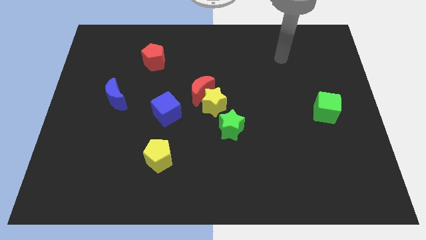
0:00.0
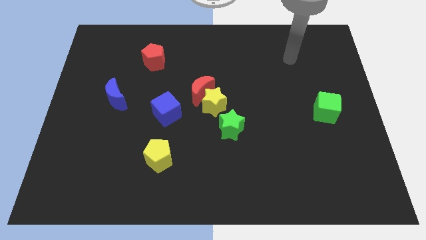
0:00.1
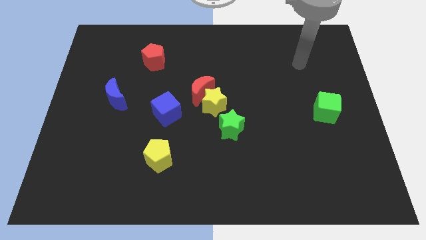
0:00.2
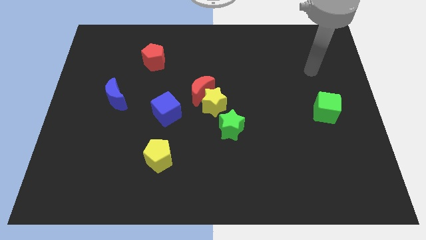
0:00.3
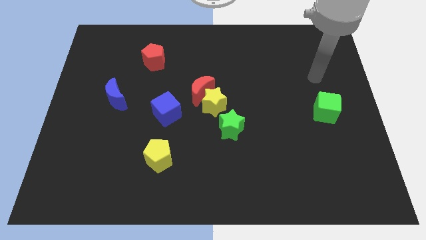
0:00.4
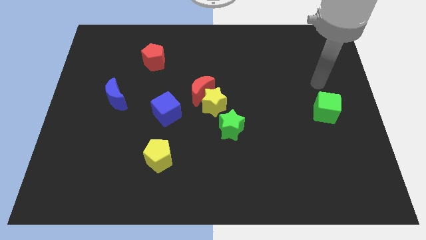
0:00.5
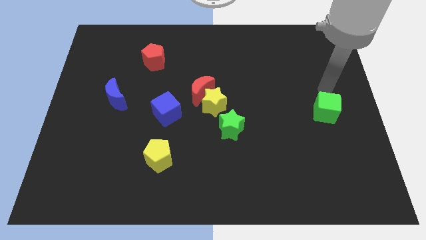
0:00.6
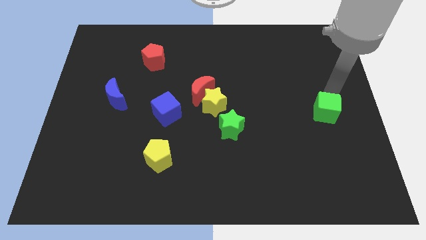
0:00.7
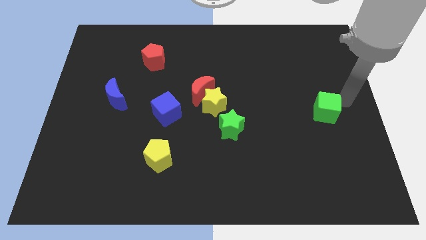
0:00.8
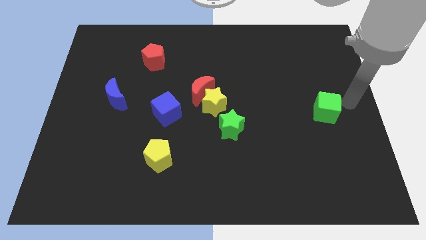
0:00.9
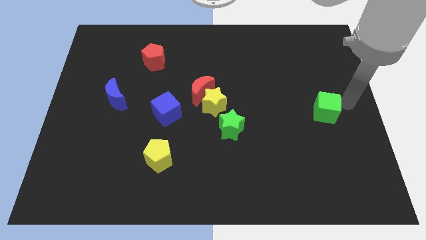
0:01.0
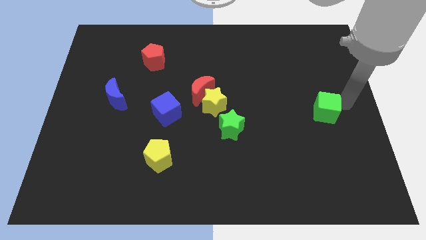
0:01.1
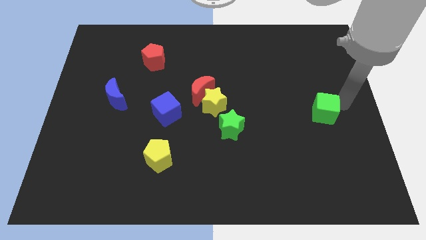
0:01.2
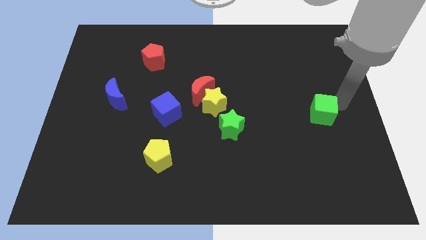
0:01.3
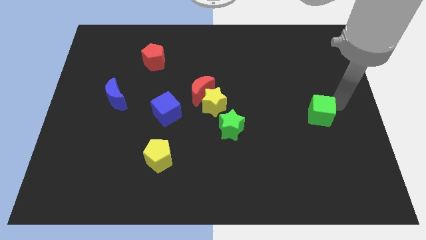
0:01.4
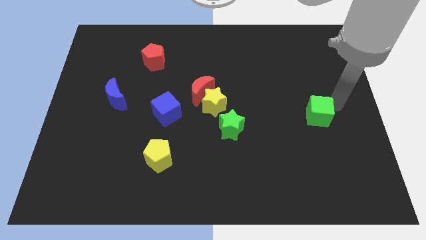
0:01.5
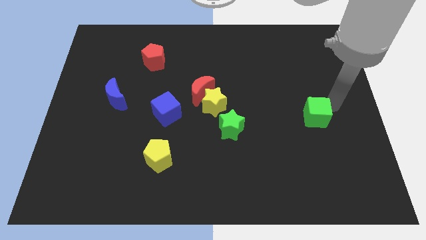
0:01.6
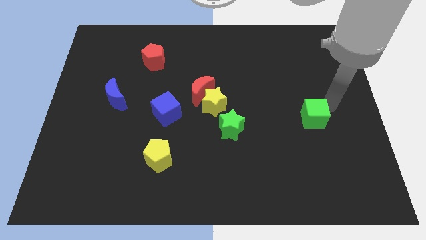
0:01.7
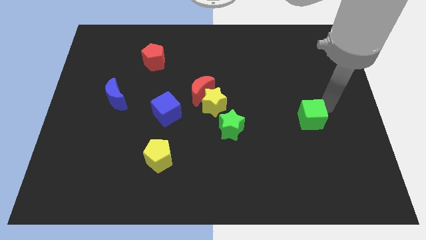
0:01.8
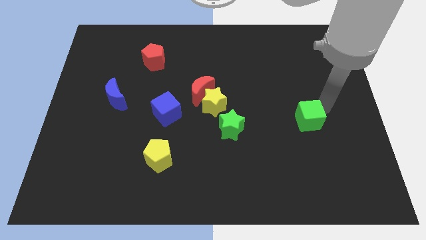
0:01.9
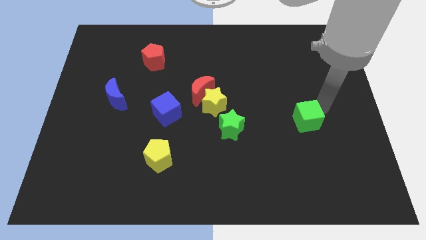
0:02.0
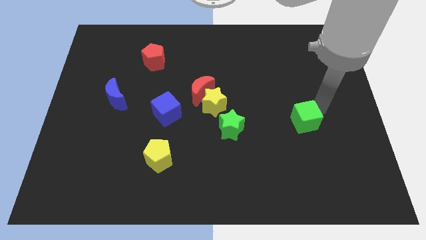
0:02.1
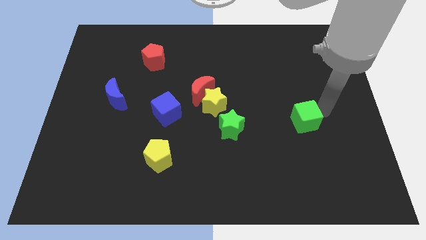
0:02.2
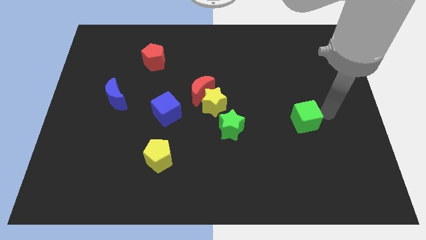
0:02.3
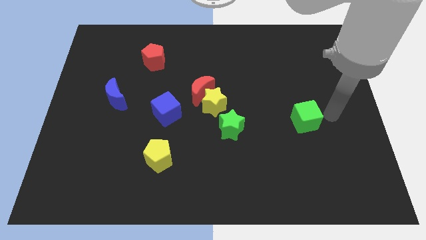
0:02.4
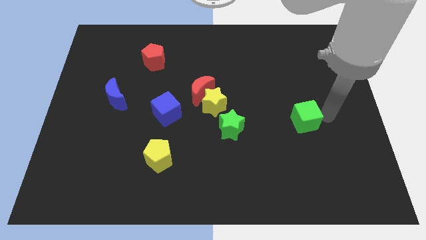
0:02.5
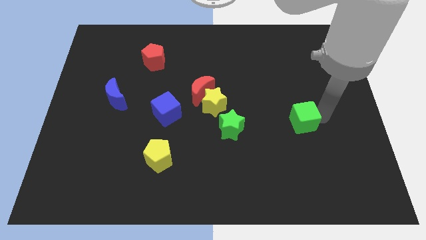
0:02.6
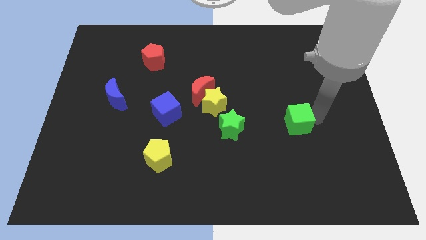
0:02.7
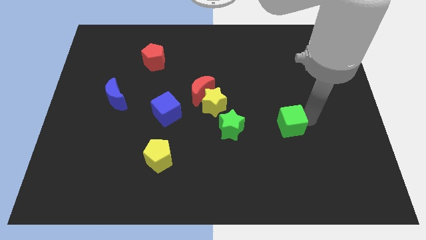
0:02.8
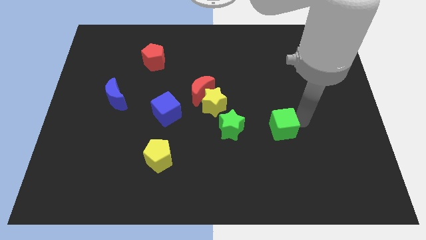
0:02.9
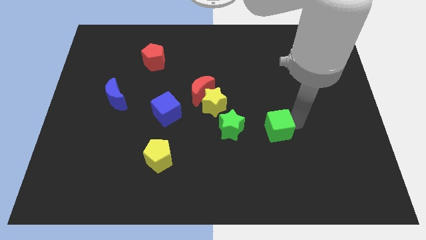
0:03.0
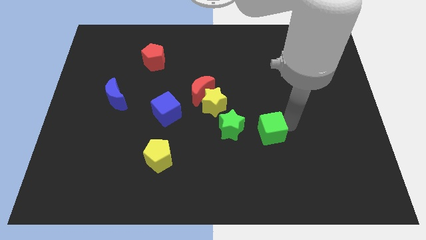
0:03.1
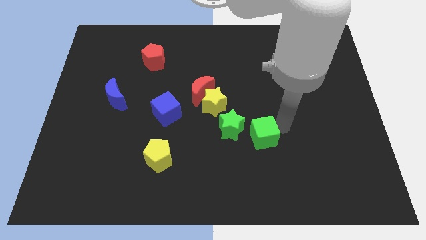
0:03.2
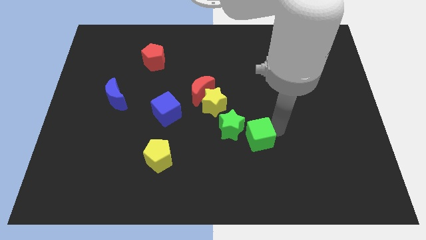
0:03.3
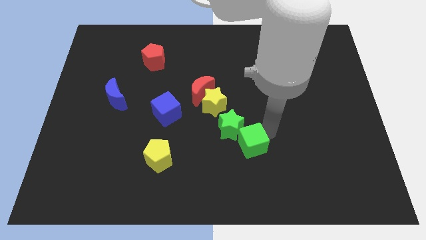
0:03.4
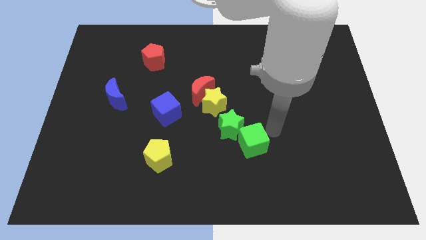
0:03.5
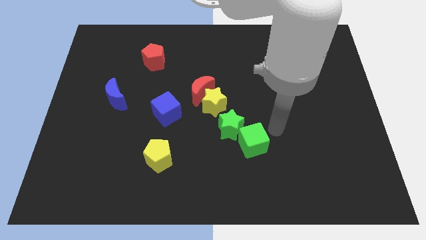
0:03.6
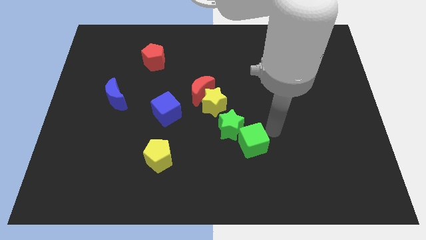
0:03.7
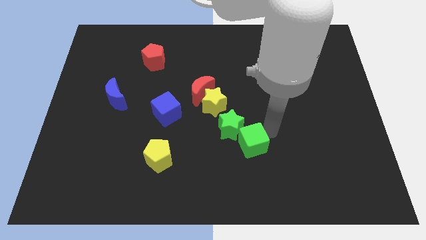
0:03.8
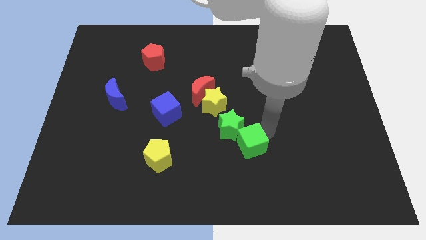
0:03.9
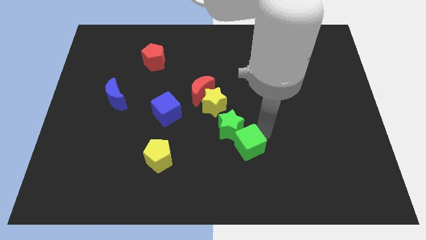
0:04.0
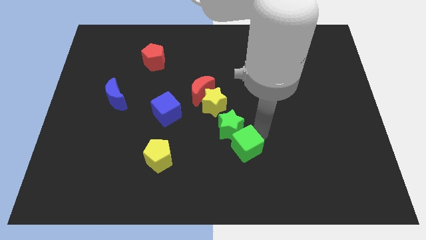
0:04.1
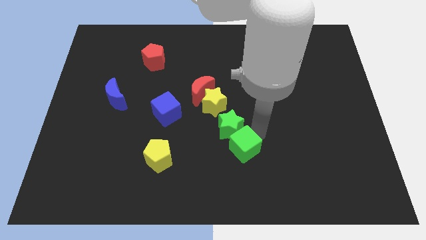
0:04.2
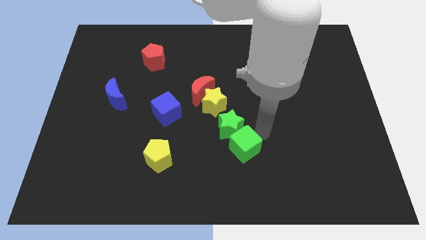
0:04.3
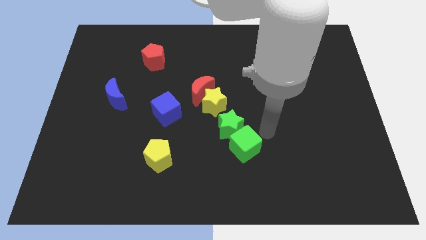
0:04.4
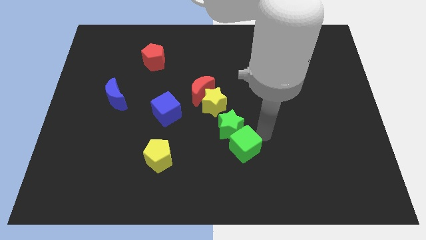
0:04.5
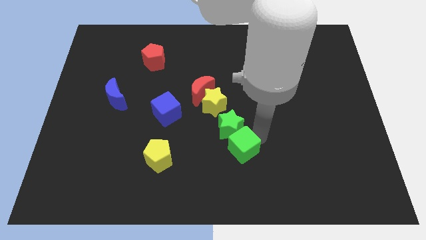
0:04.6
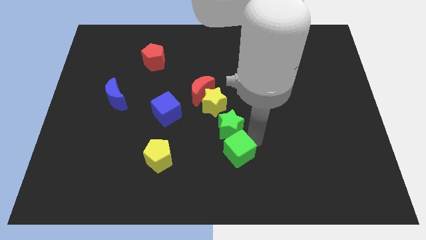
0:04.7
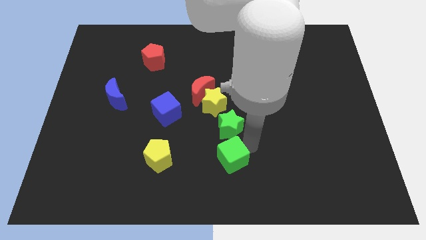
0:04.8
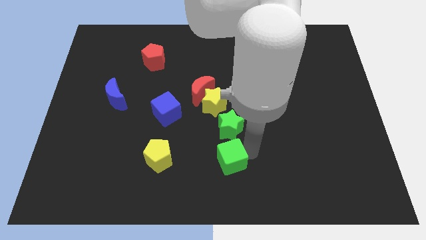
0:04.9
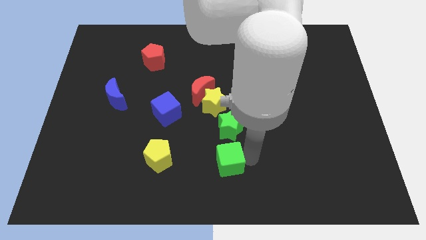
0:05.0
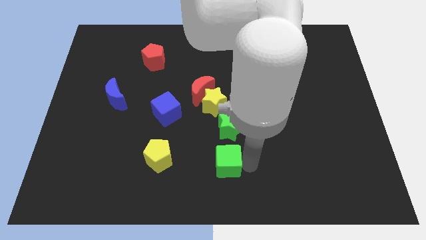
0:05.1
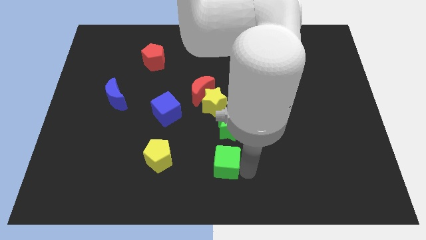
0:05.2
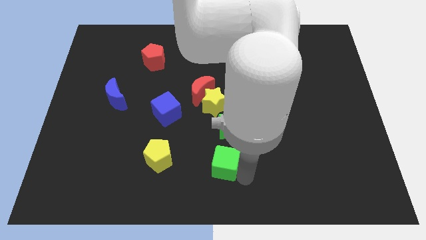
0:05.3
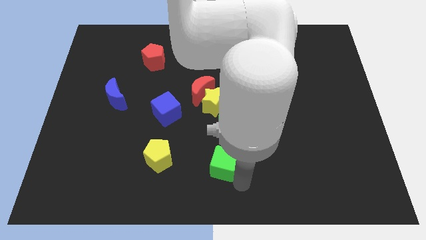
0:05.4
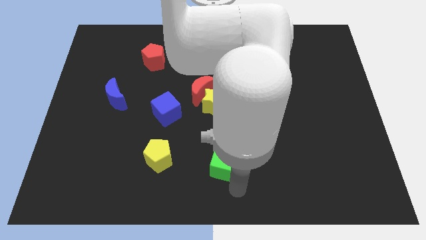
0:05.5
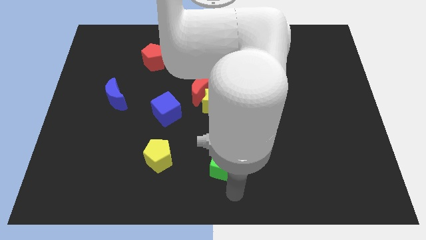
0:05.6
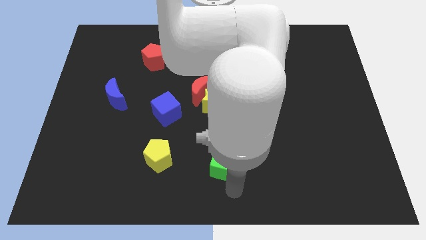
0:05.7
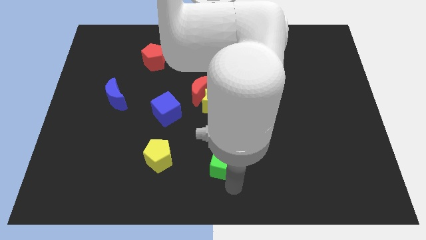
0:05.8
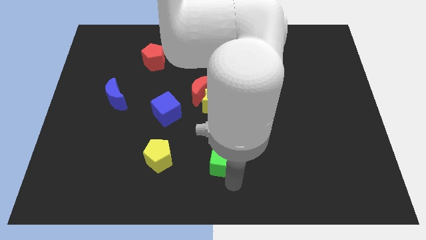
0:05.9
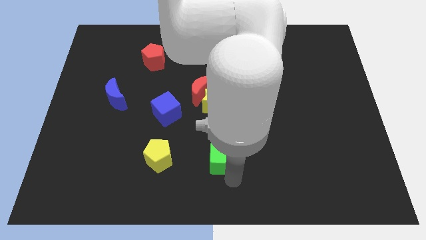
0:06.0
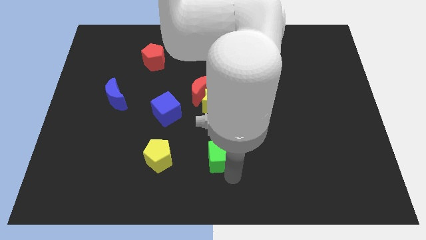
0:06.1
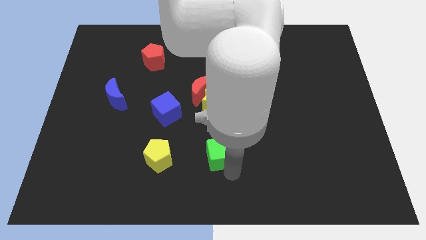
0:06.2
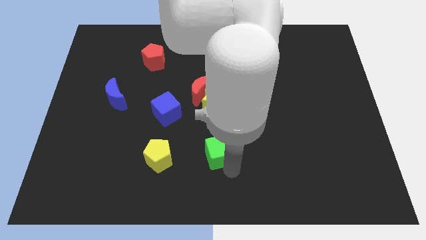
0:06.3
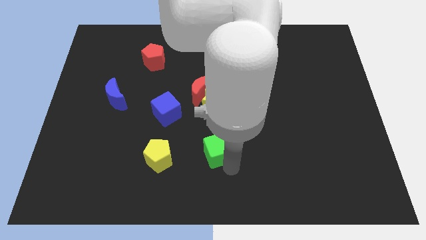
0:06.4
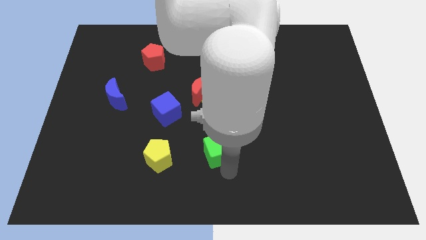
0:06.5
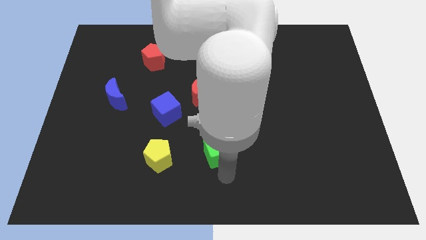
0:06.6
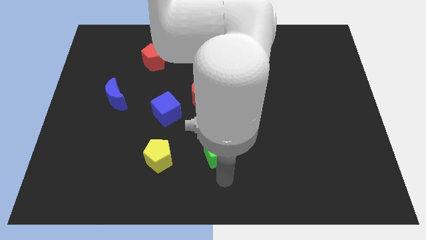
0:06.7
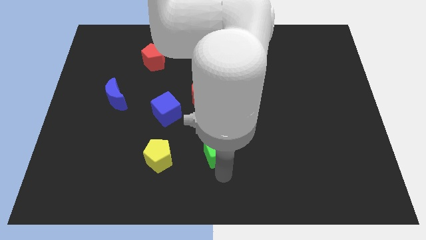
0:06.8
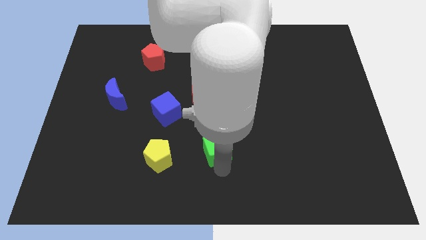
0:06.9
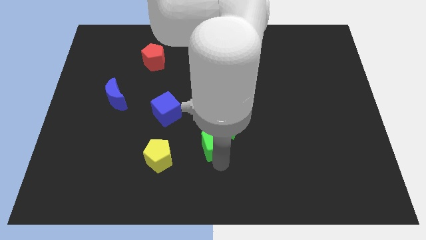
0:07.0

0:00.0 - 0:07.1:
move the green cube left

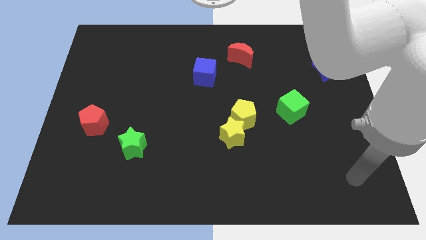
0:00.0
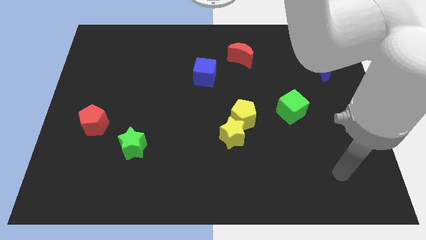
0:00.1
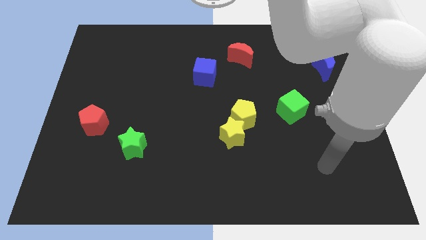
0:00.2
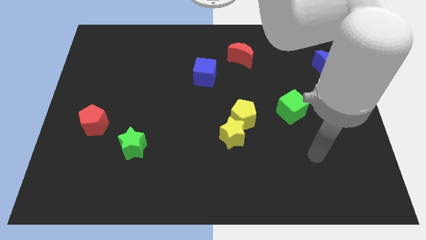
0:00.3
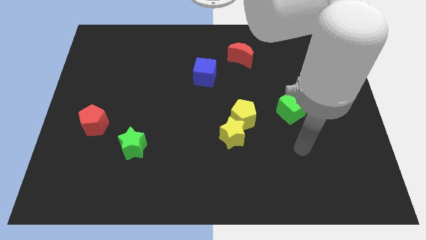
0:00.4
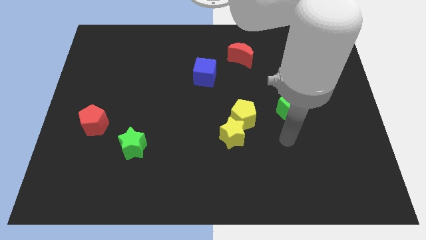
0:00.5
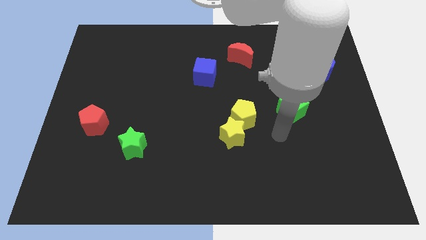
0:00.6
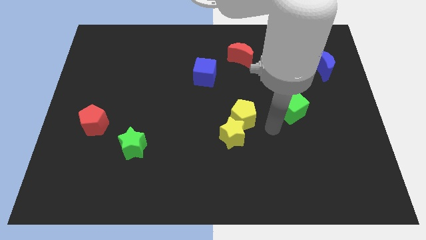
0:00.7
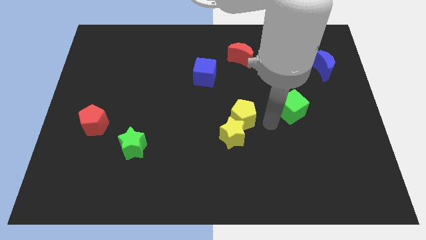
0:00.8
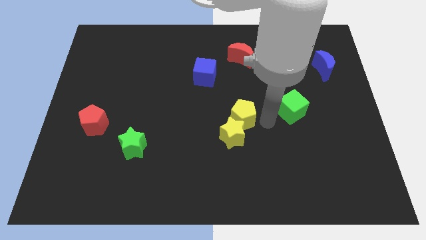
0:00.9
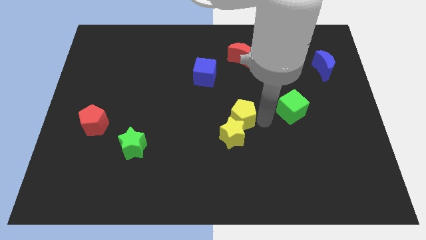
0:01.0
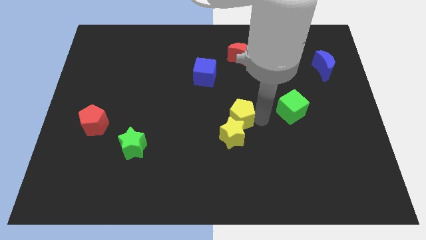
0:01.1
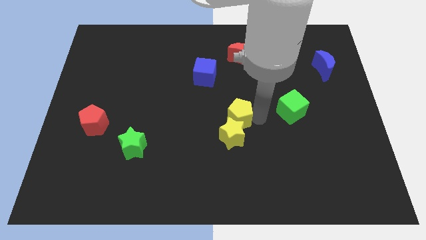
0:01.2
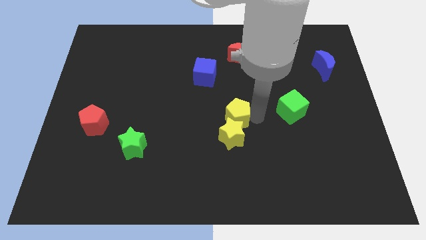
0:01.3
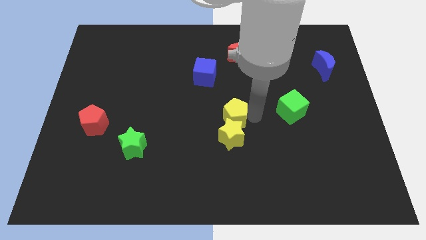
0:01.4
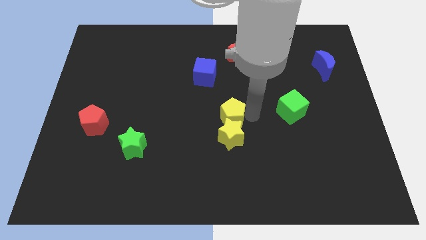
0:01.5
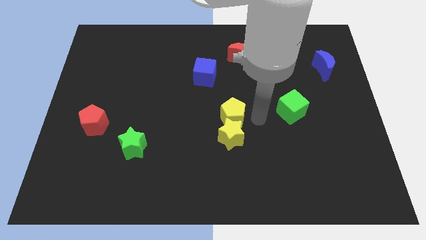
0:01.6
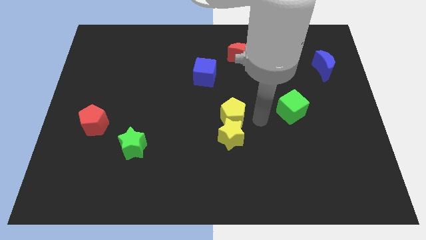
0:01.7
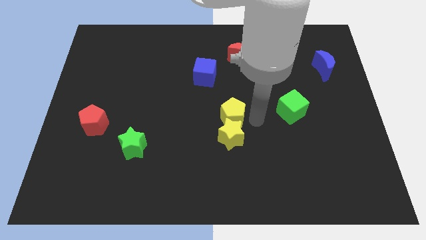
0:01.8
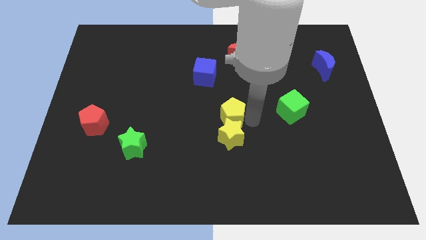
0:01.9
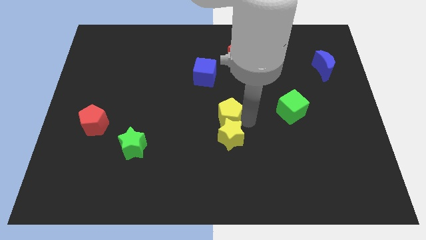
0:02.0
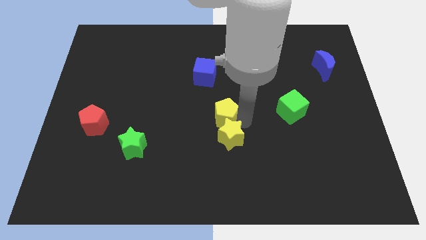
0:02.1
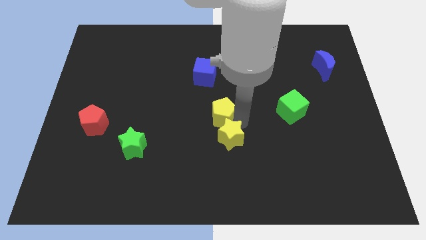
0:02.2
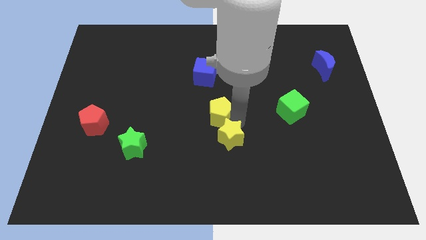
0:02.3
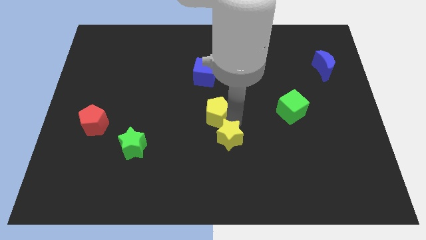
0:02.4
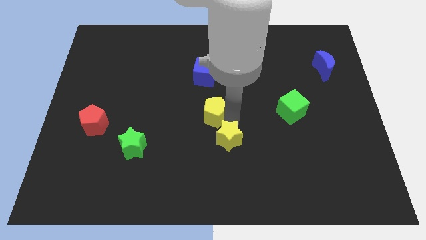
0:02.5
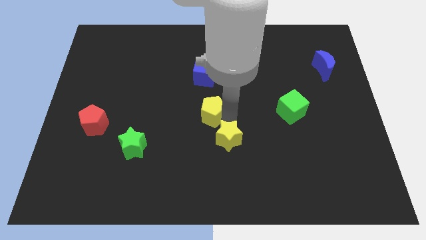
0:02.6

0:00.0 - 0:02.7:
slide the yellow pentagon left a bit
